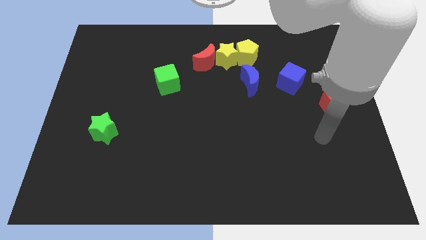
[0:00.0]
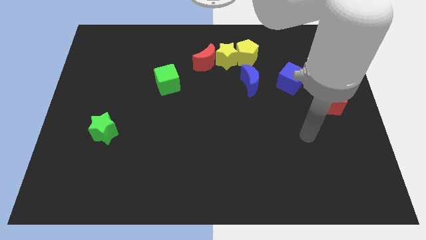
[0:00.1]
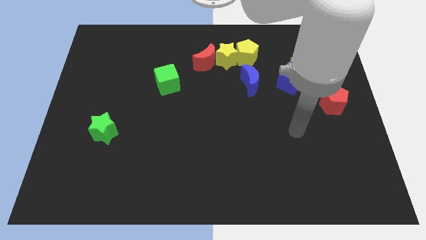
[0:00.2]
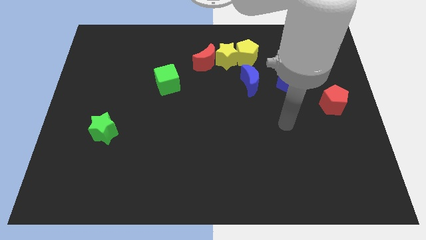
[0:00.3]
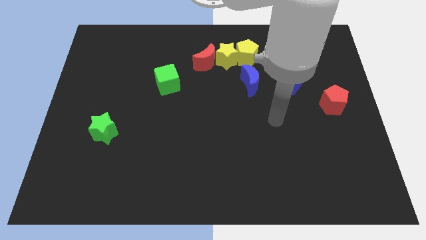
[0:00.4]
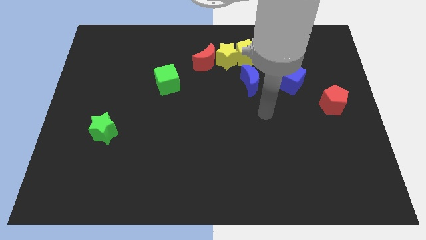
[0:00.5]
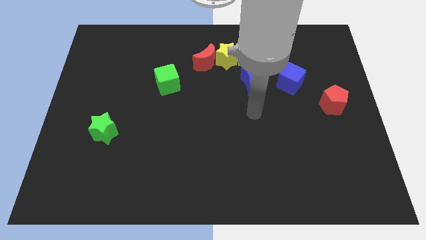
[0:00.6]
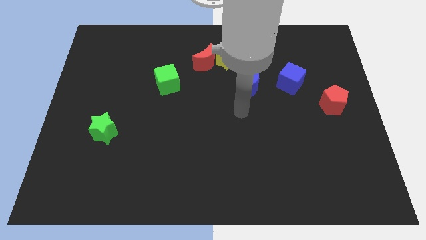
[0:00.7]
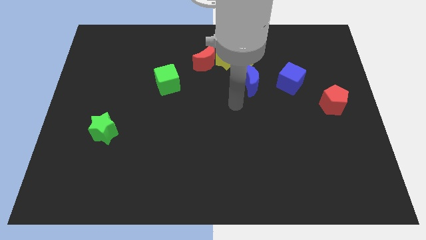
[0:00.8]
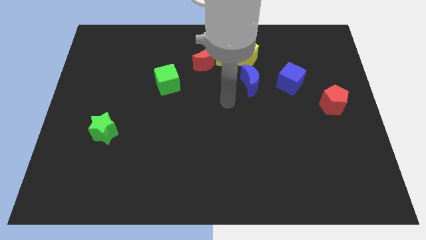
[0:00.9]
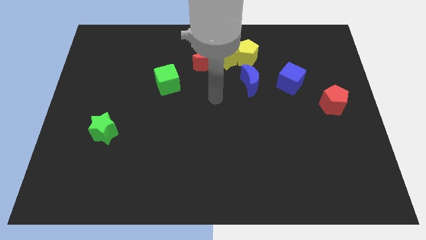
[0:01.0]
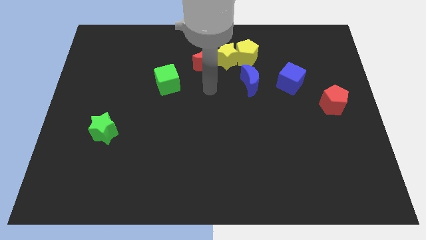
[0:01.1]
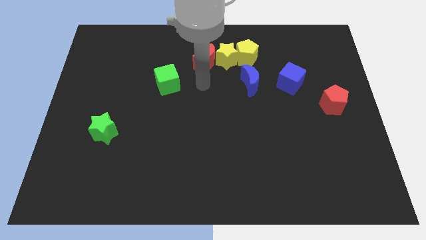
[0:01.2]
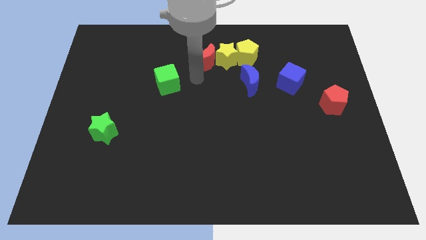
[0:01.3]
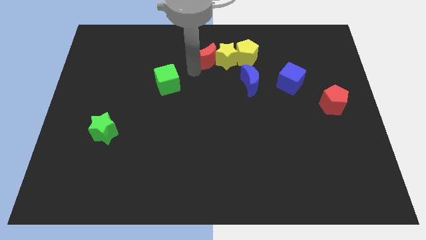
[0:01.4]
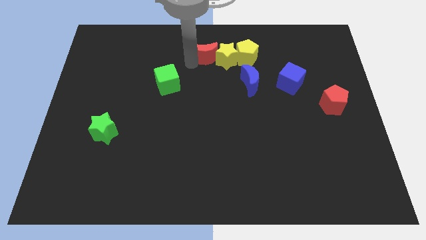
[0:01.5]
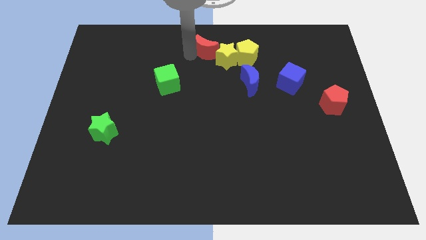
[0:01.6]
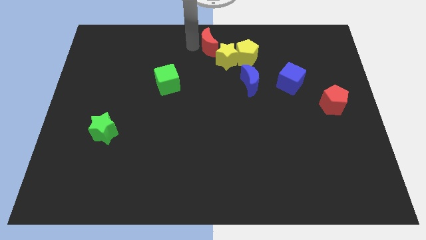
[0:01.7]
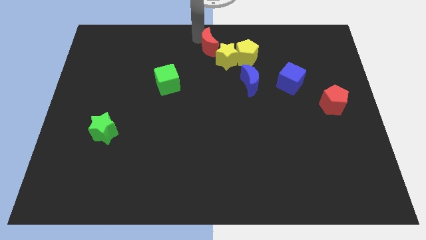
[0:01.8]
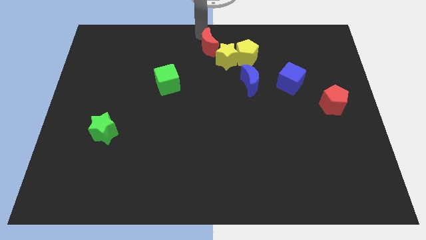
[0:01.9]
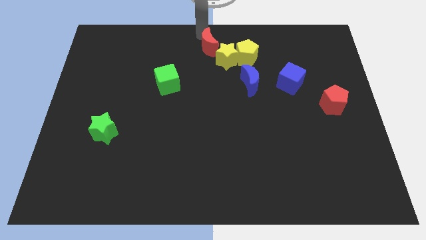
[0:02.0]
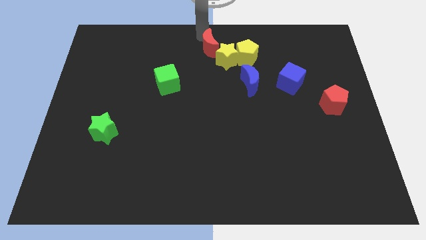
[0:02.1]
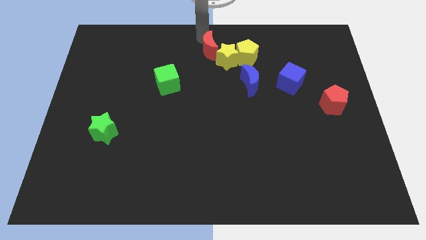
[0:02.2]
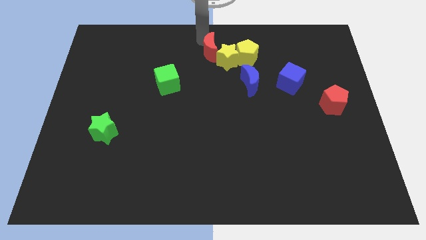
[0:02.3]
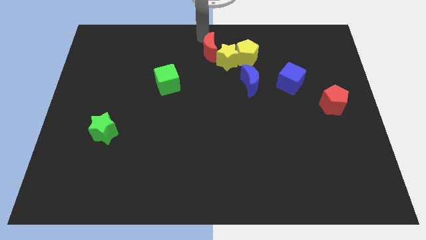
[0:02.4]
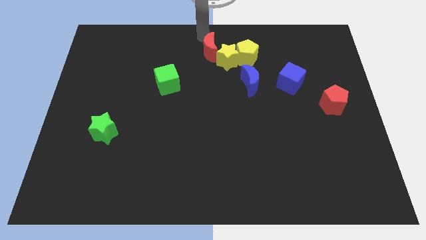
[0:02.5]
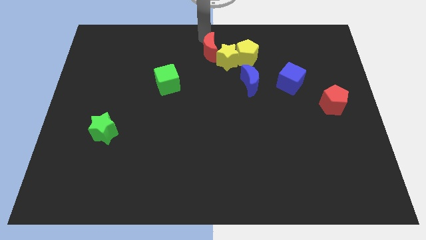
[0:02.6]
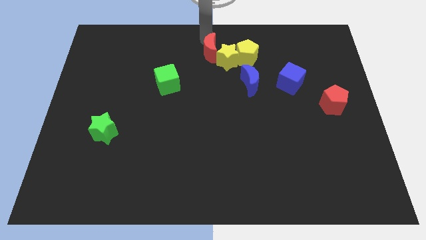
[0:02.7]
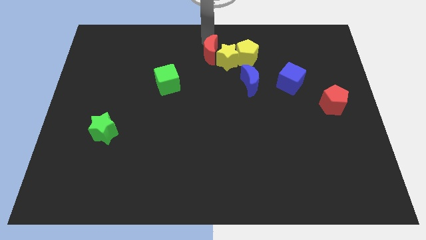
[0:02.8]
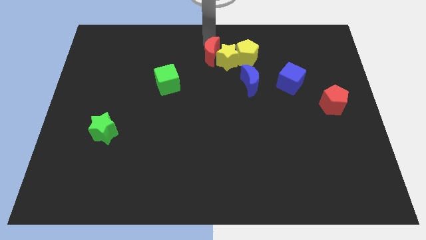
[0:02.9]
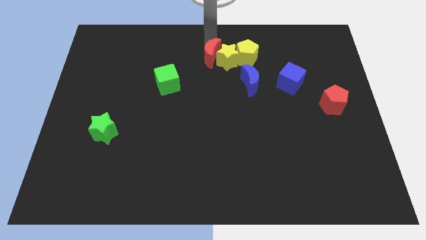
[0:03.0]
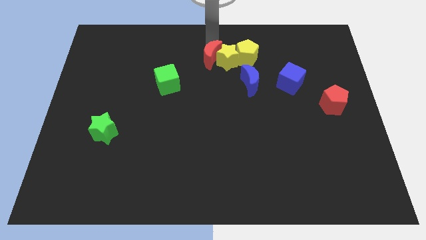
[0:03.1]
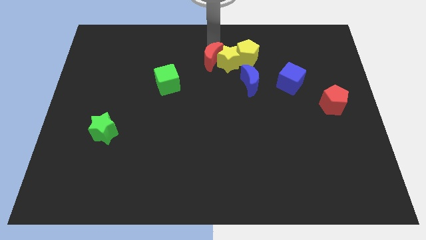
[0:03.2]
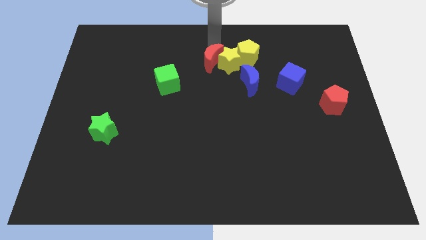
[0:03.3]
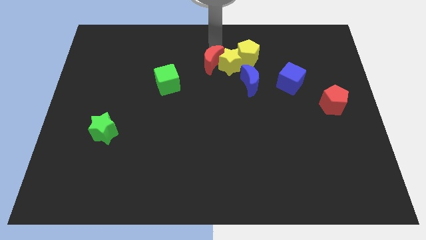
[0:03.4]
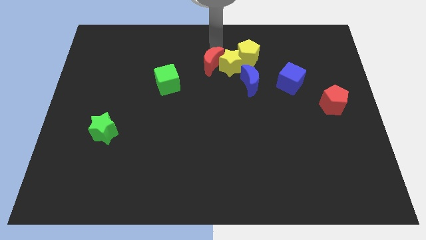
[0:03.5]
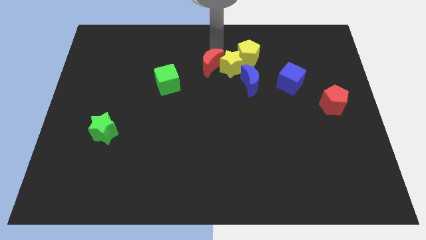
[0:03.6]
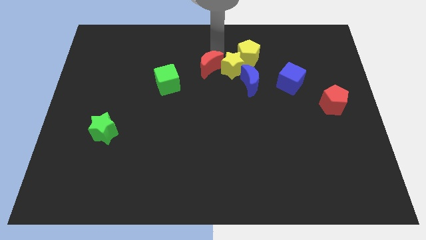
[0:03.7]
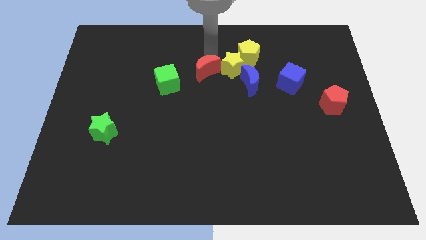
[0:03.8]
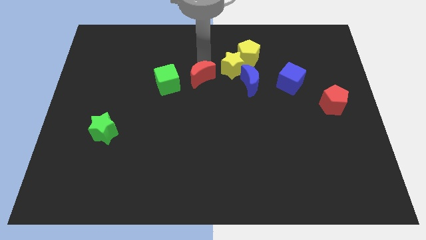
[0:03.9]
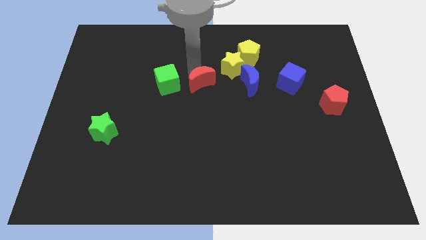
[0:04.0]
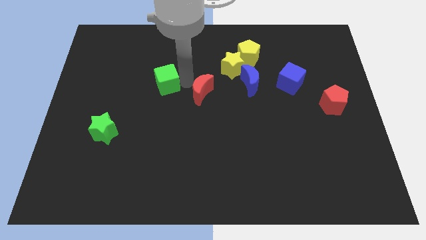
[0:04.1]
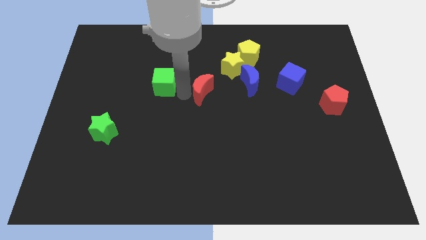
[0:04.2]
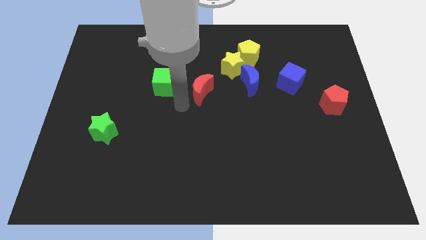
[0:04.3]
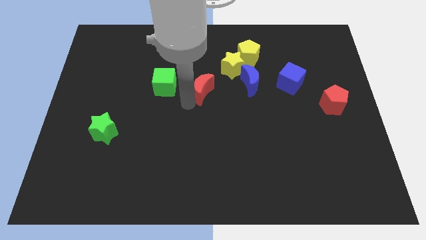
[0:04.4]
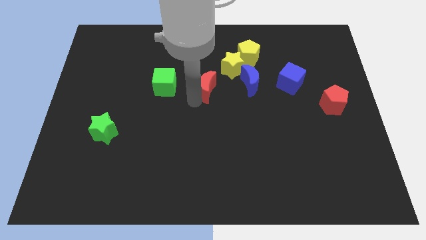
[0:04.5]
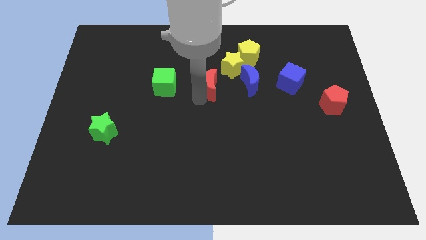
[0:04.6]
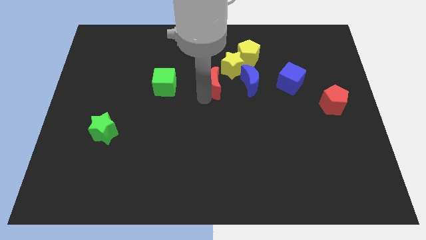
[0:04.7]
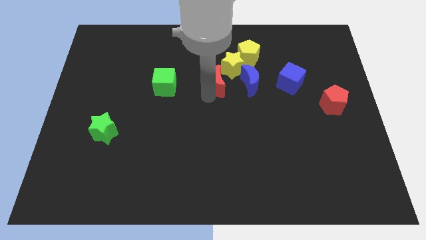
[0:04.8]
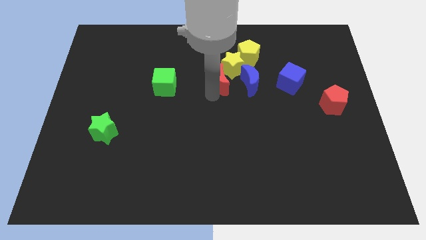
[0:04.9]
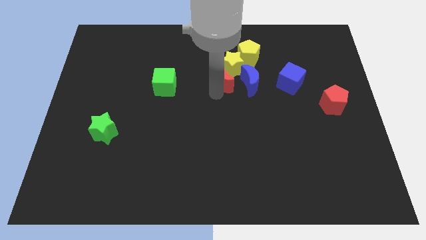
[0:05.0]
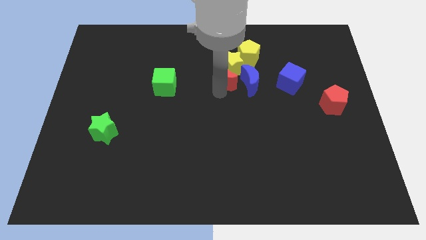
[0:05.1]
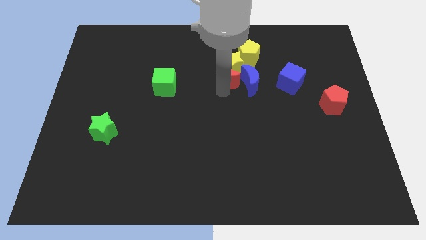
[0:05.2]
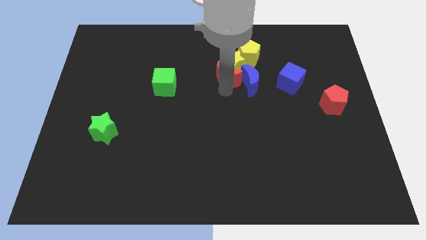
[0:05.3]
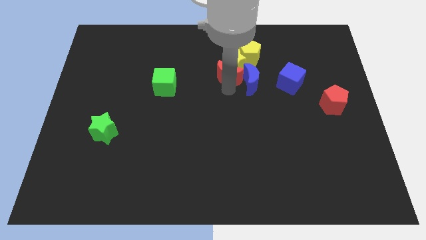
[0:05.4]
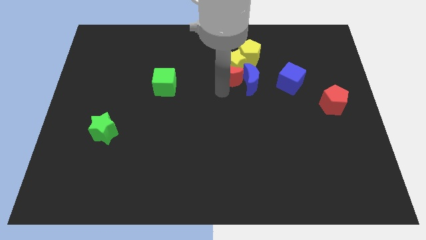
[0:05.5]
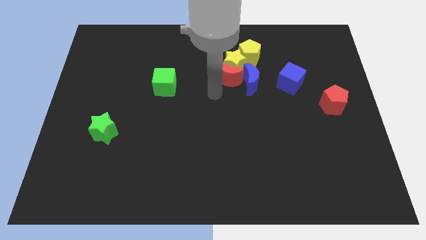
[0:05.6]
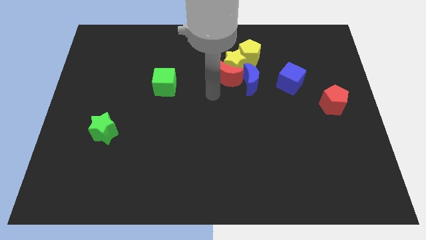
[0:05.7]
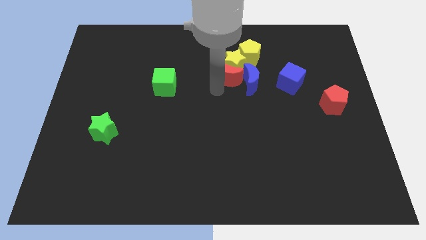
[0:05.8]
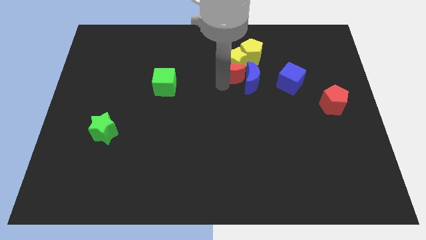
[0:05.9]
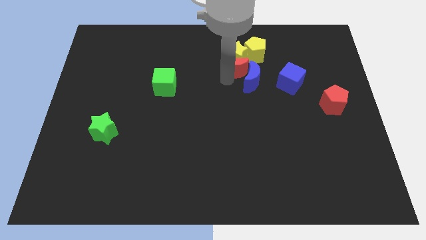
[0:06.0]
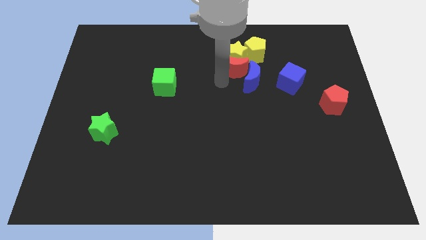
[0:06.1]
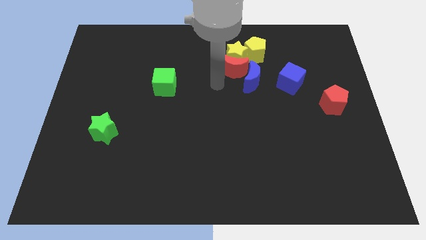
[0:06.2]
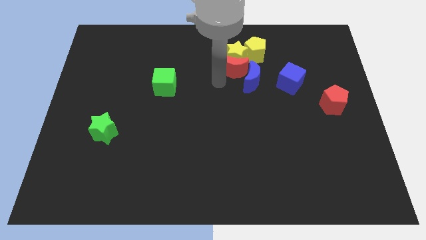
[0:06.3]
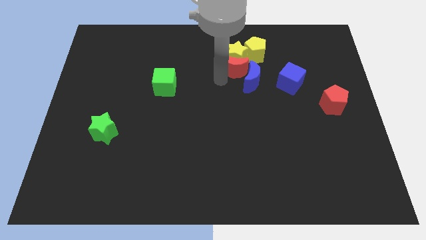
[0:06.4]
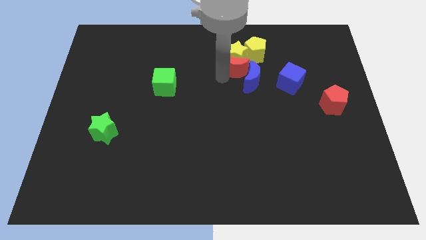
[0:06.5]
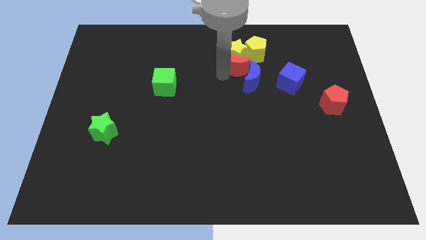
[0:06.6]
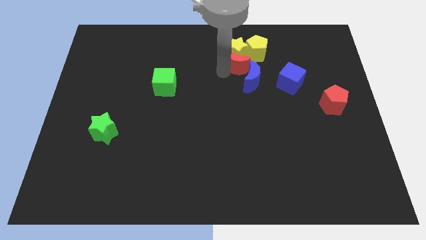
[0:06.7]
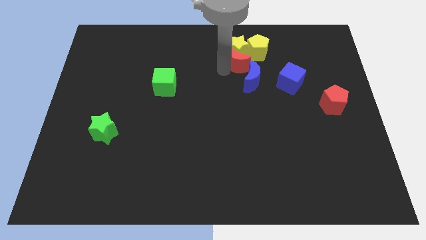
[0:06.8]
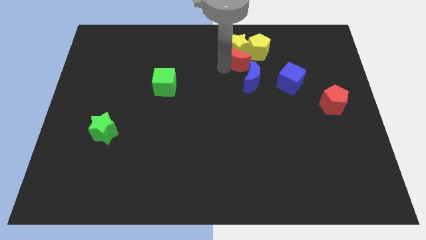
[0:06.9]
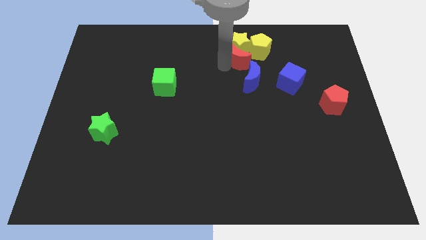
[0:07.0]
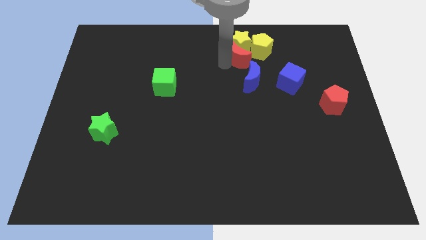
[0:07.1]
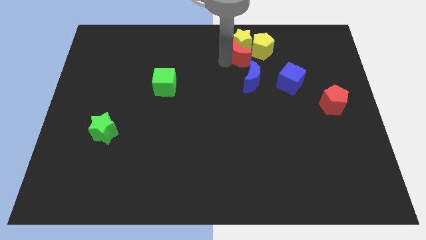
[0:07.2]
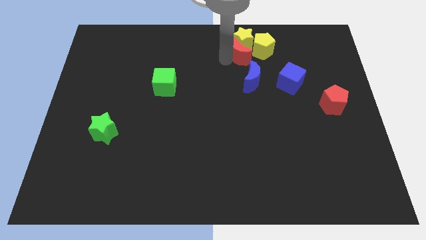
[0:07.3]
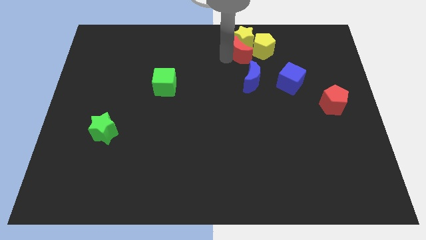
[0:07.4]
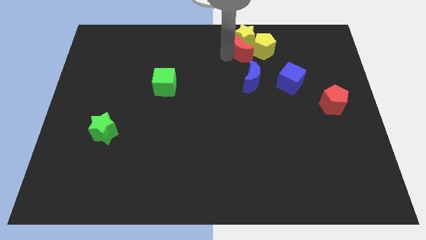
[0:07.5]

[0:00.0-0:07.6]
slide the red moon next to the yellow pentagon
